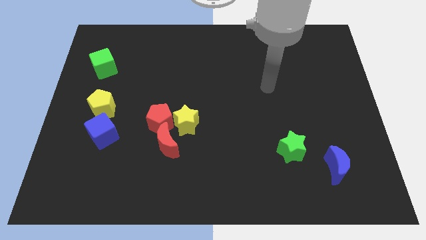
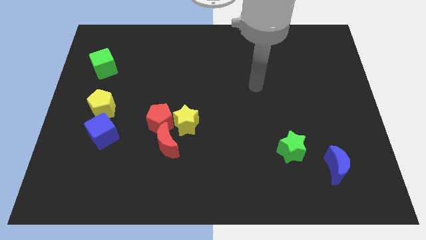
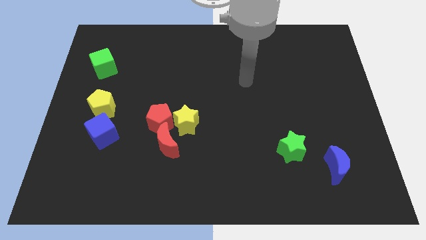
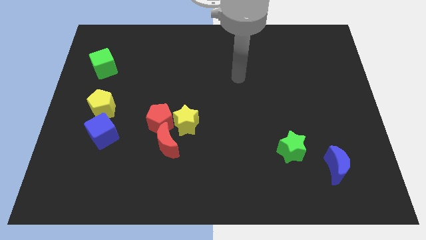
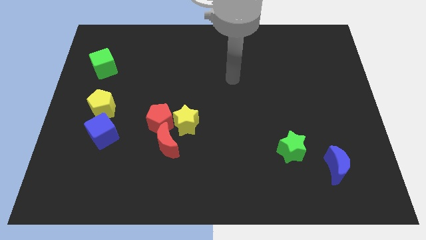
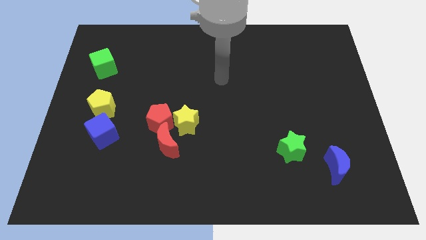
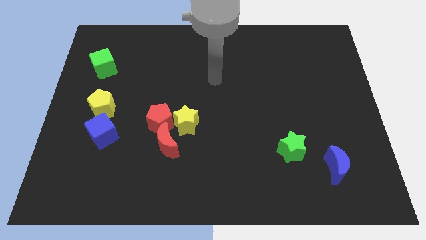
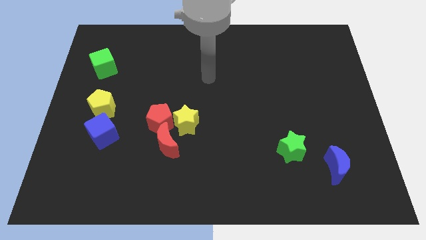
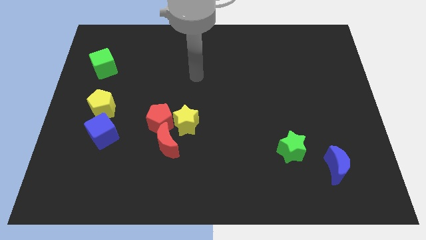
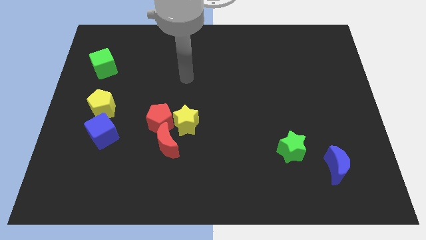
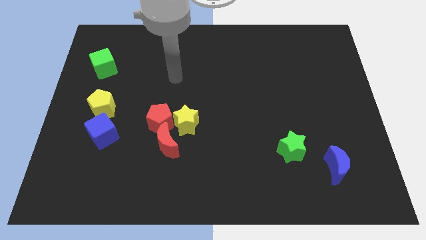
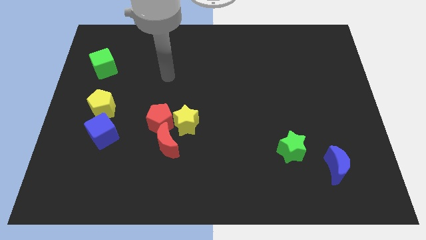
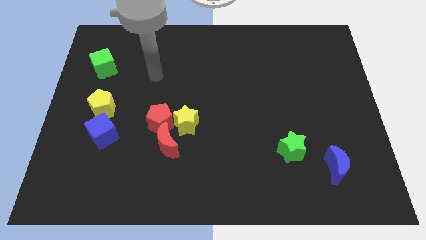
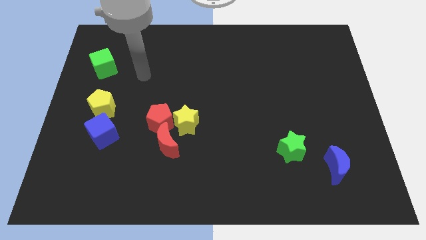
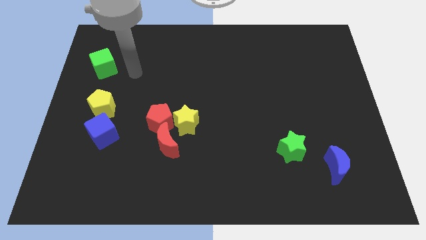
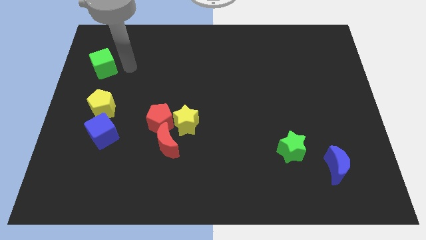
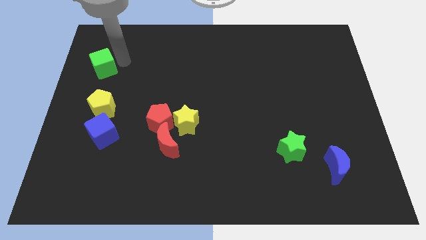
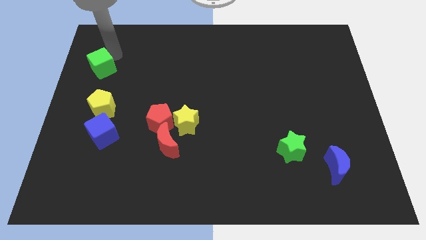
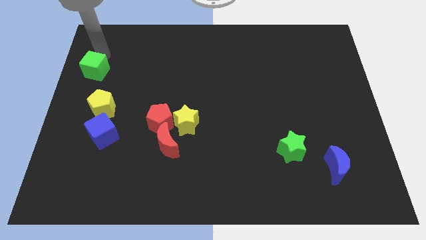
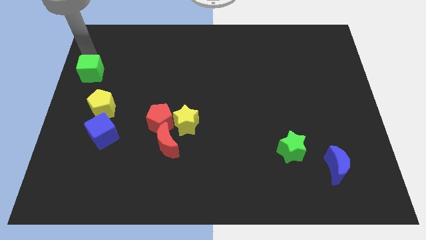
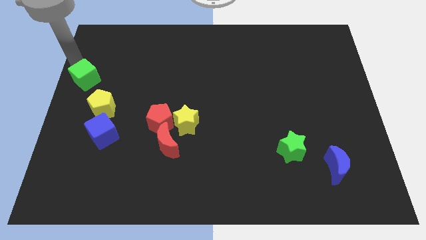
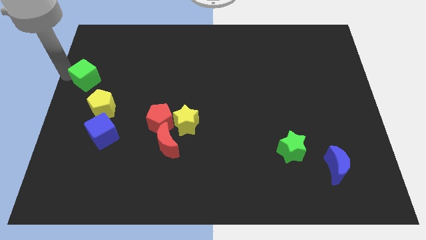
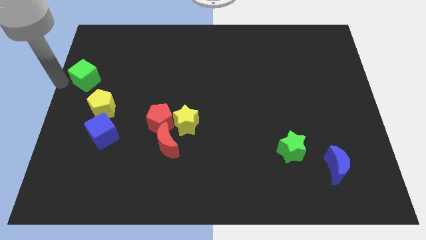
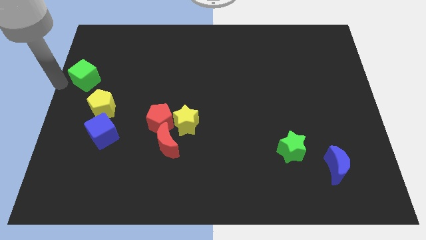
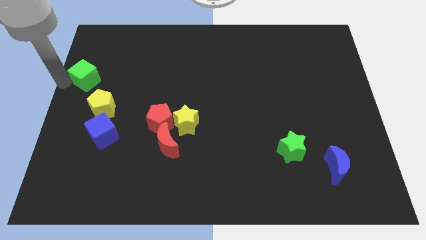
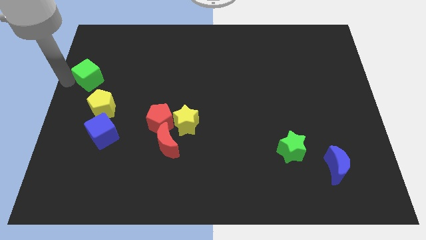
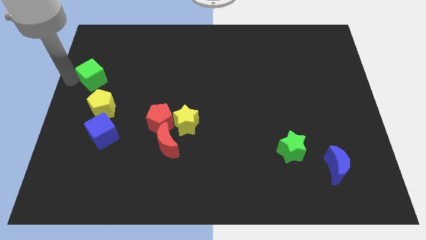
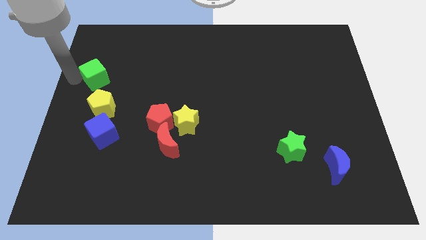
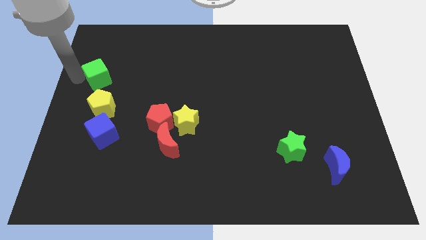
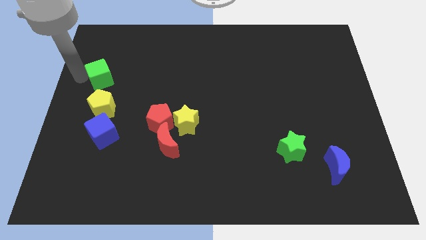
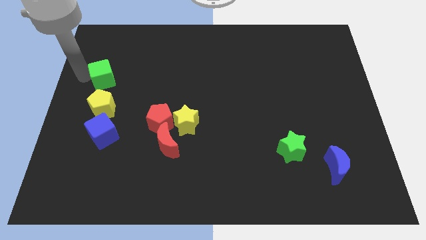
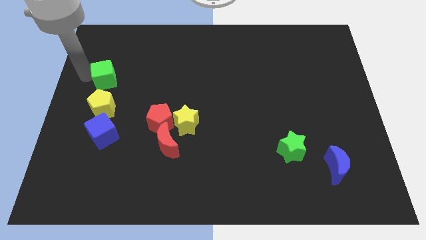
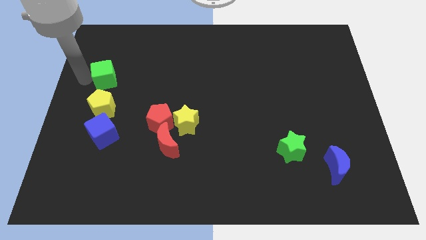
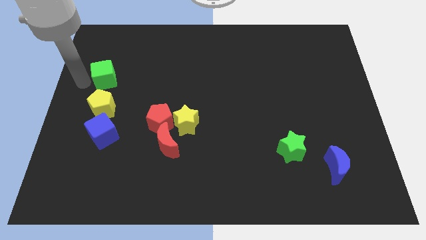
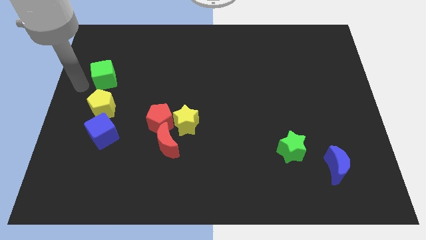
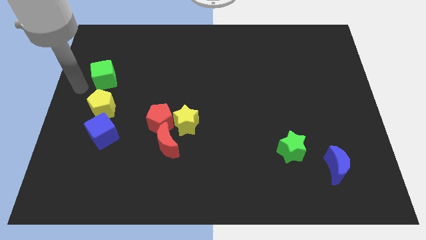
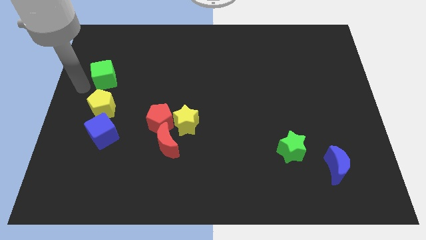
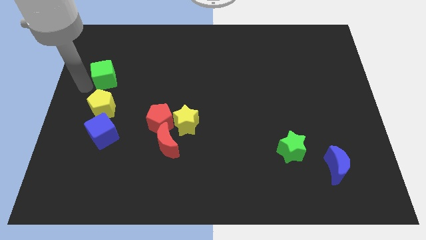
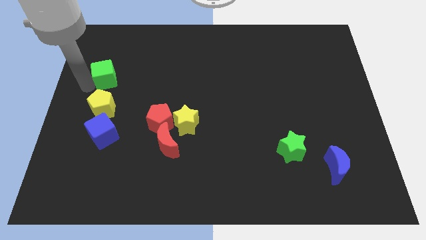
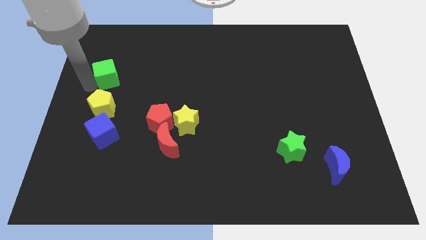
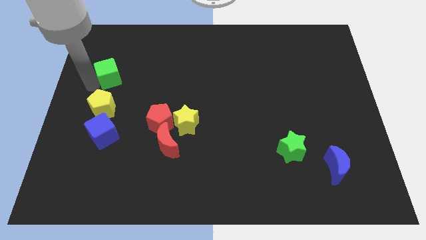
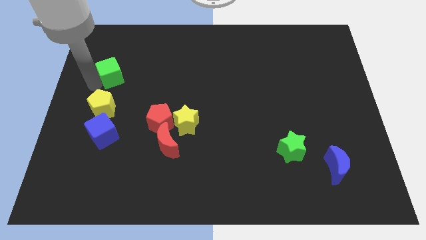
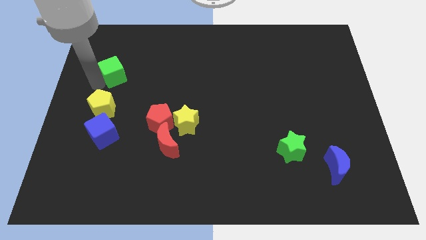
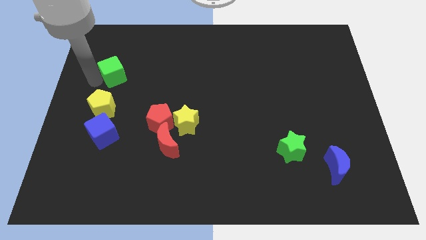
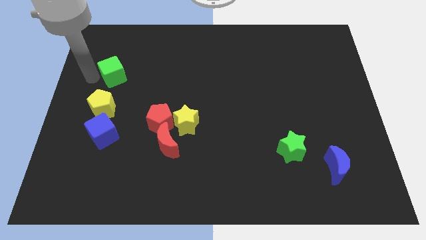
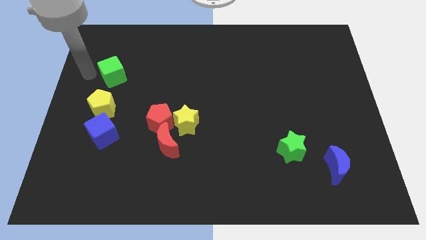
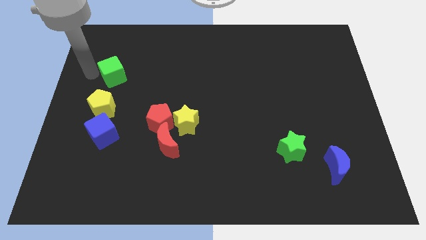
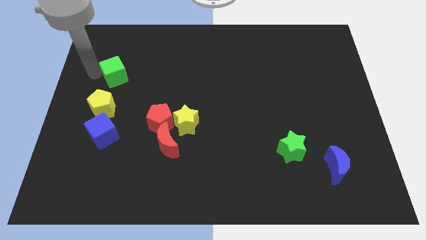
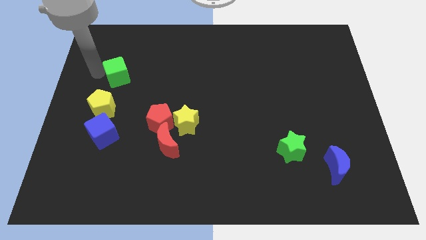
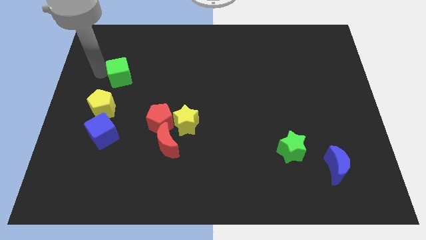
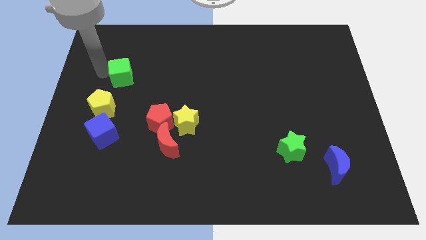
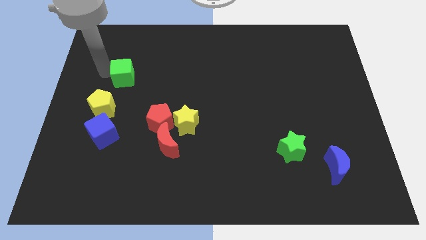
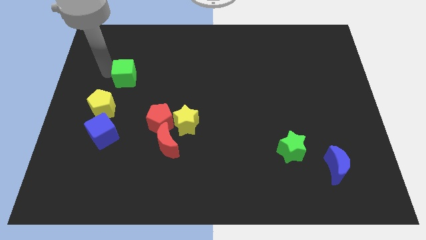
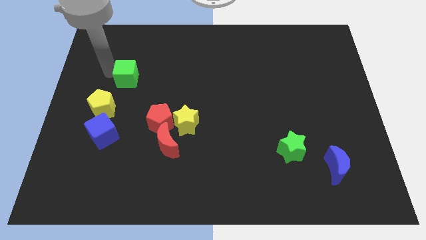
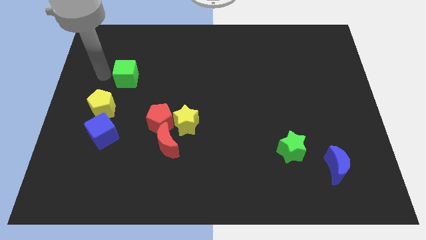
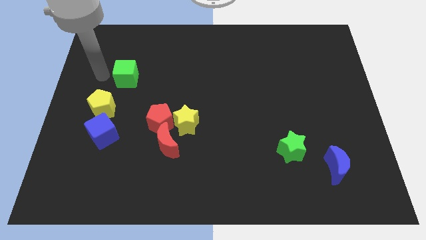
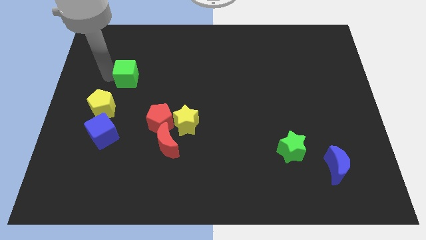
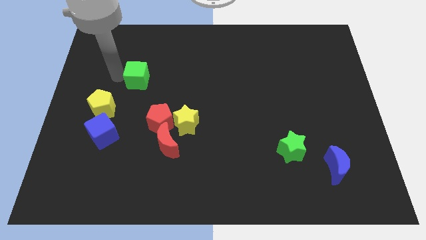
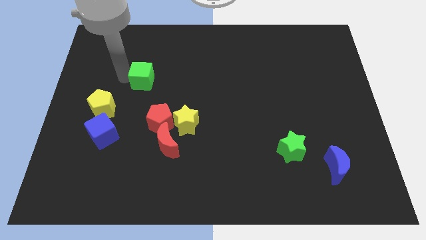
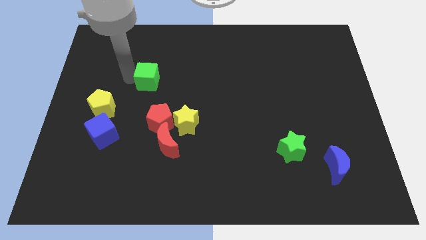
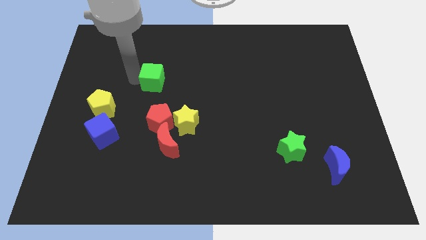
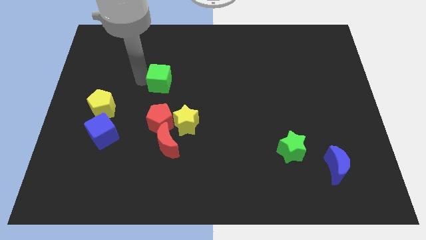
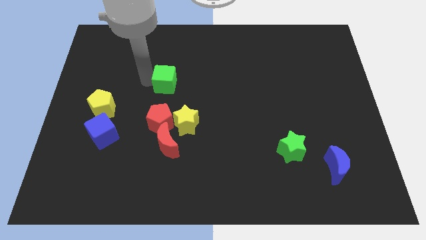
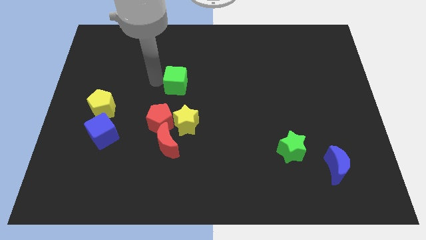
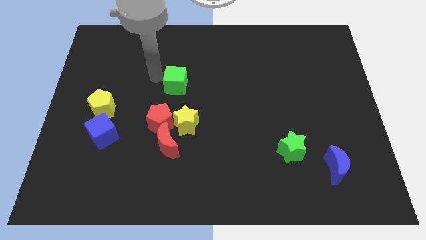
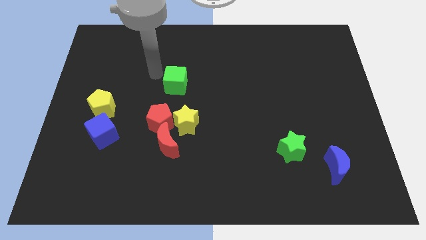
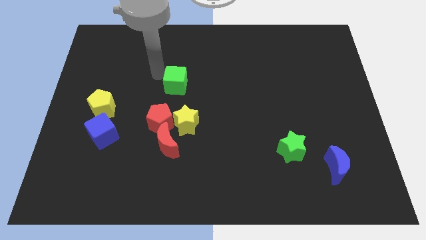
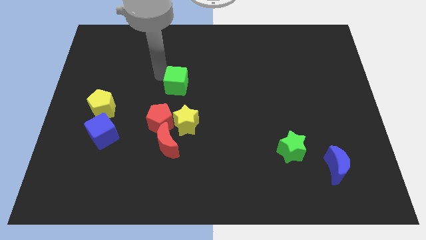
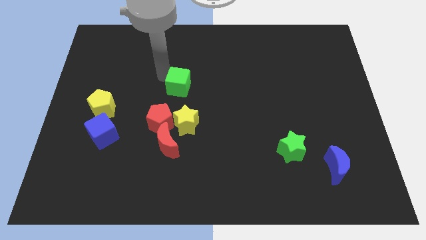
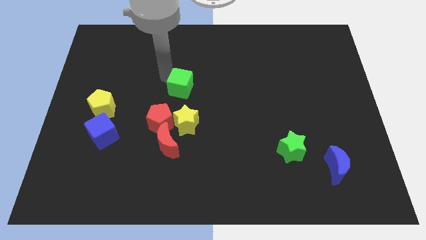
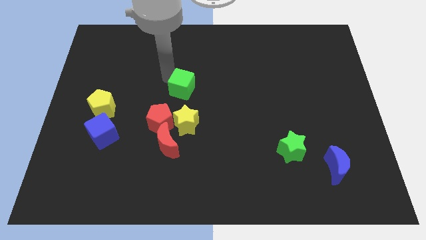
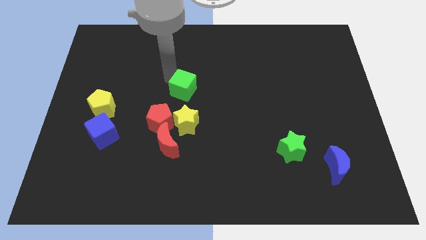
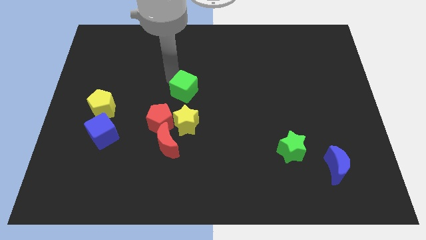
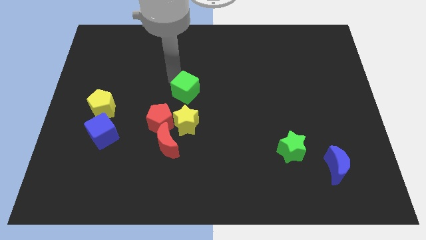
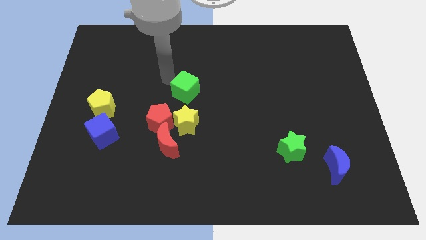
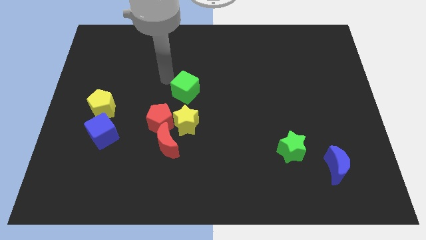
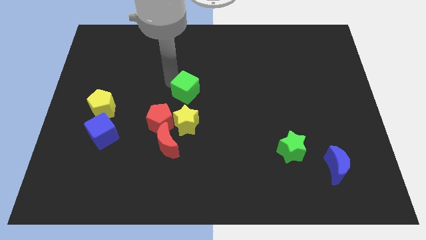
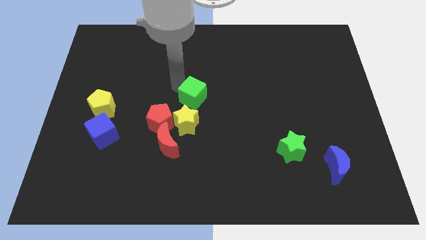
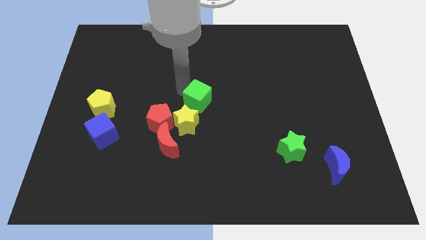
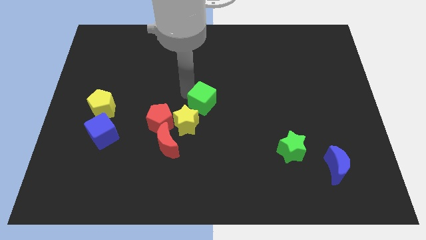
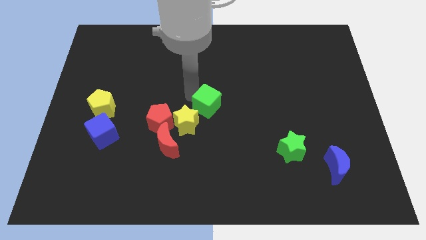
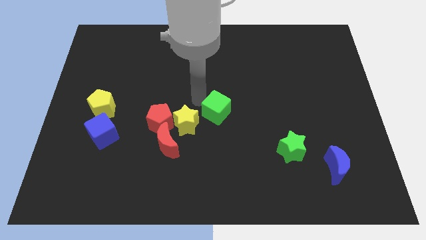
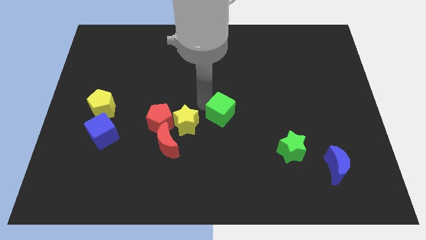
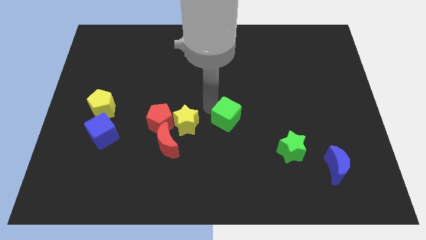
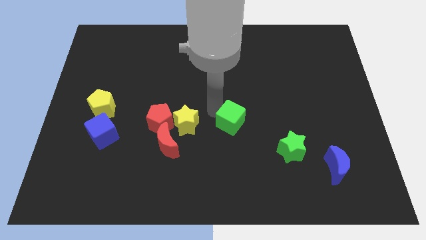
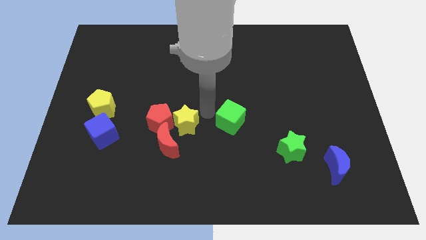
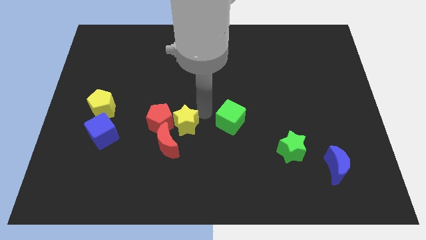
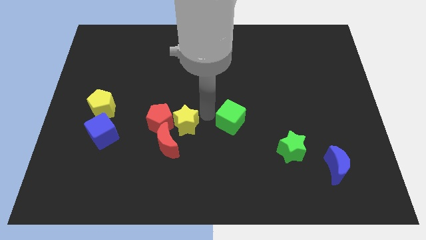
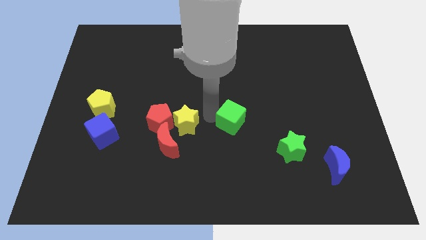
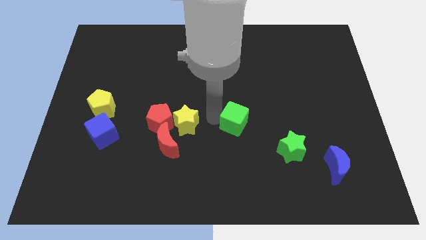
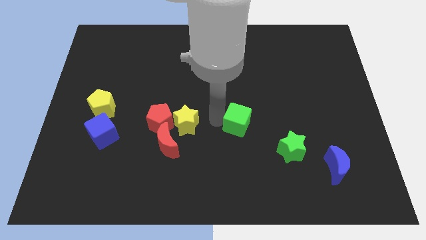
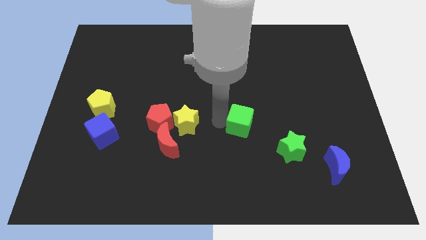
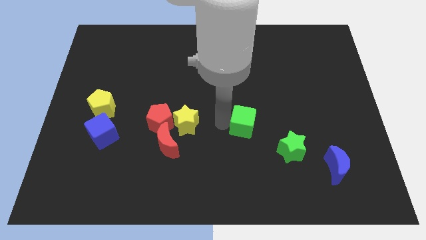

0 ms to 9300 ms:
move the green cube diagonally up and to the left of the green star
